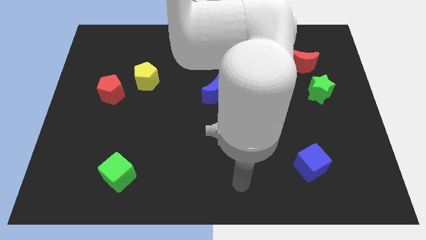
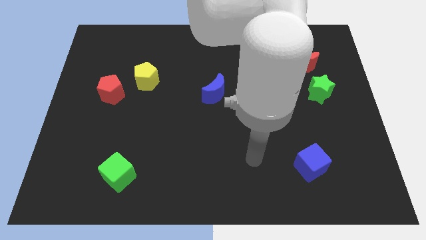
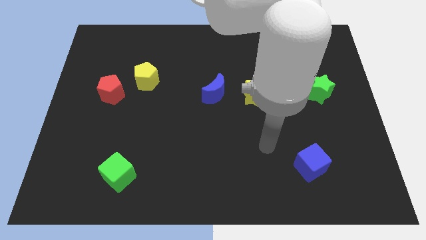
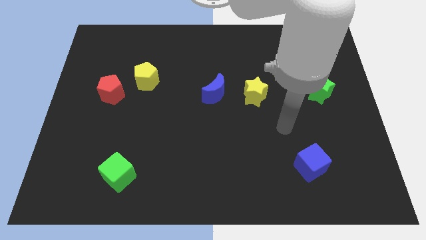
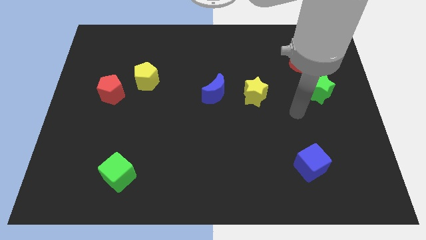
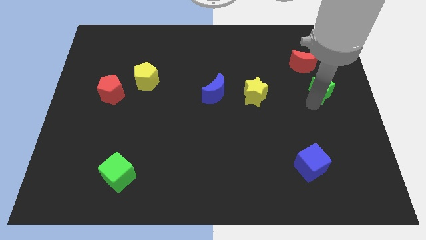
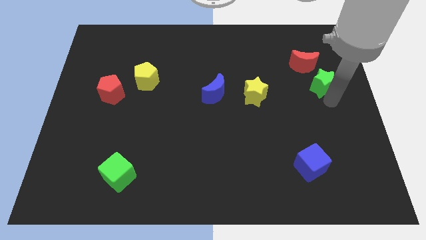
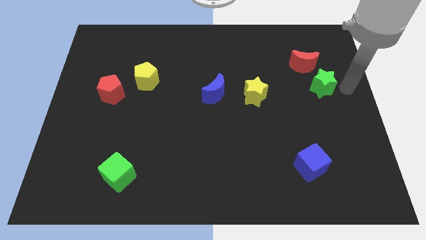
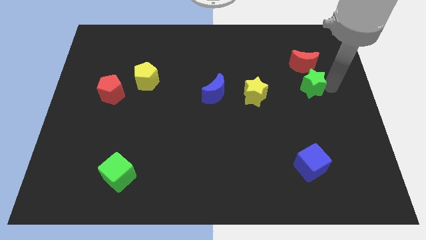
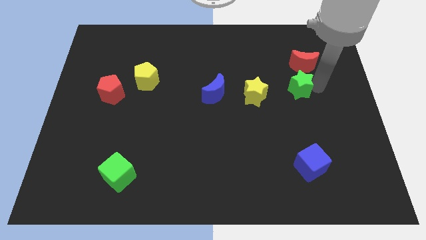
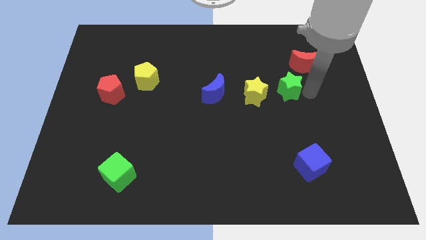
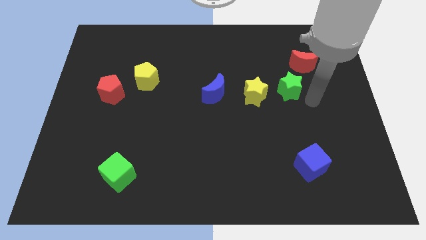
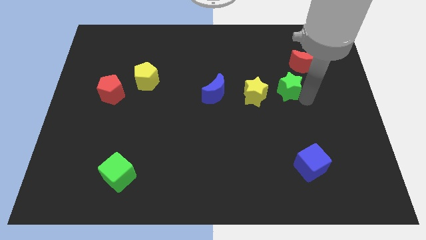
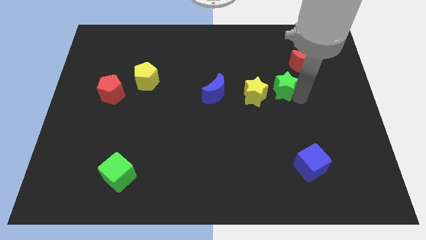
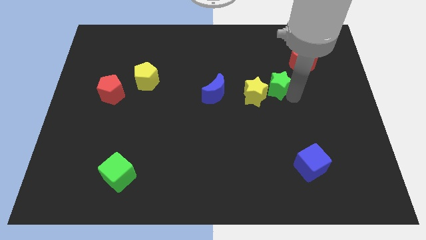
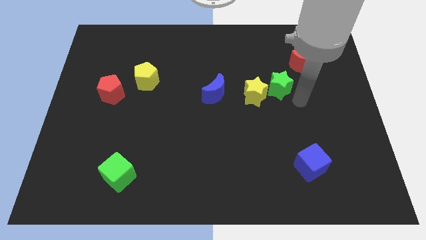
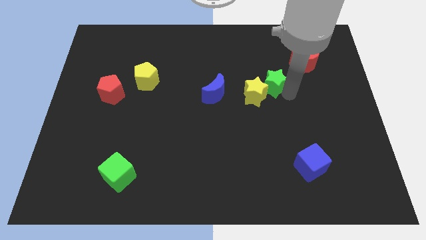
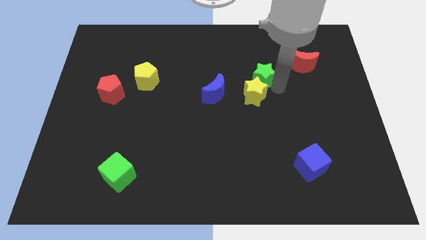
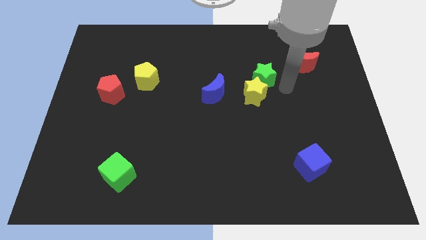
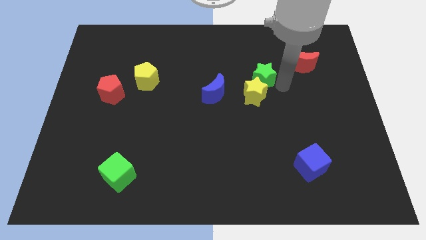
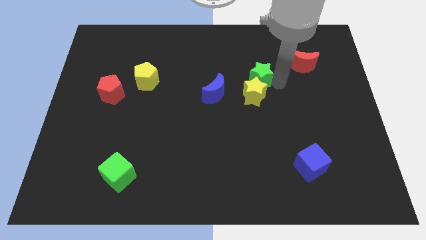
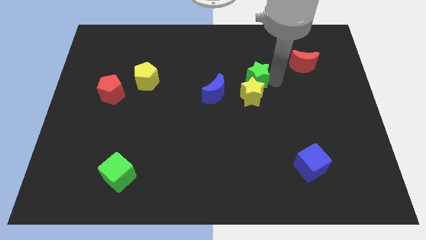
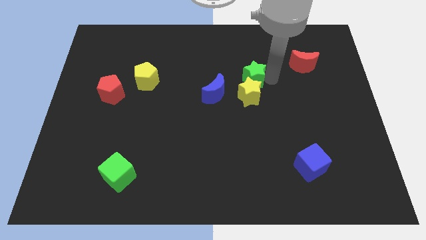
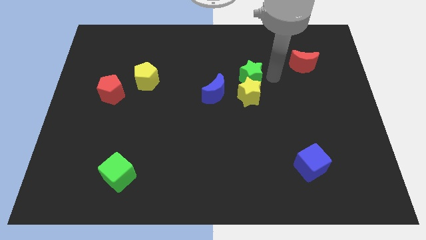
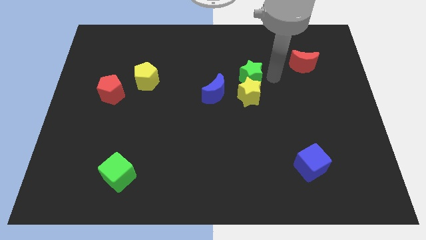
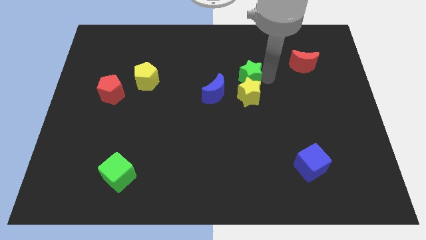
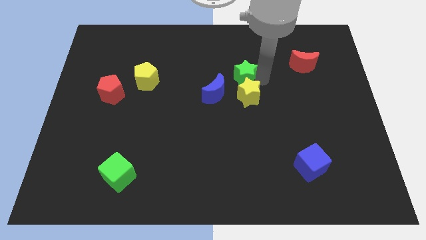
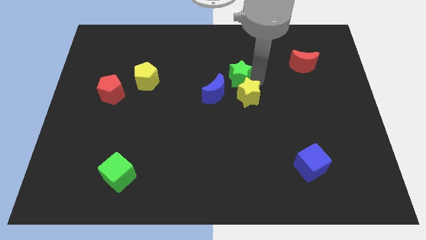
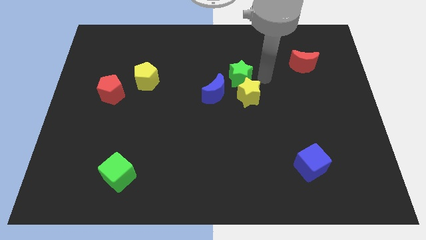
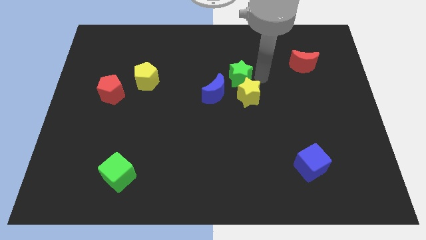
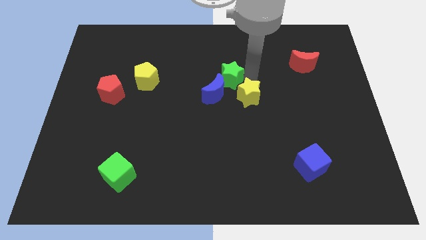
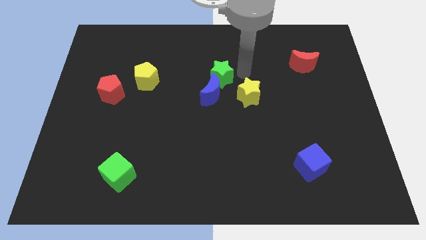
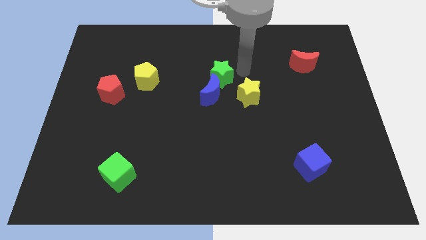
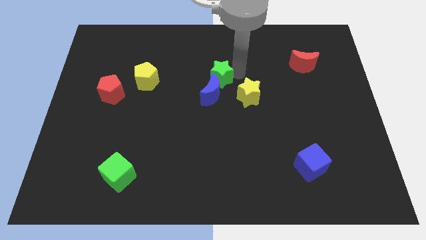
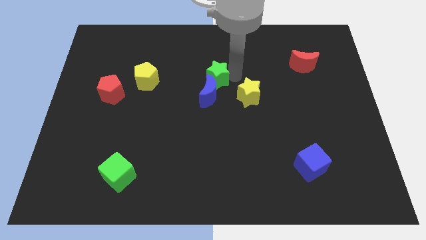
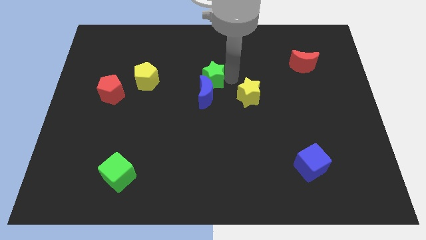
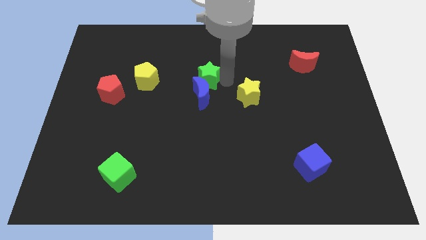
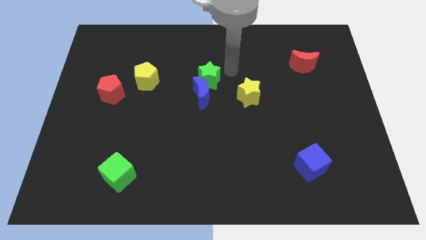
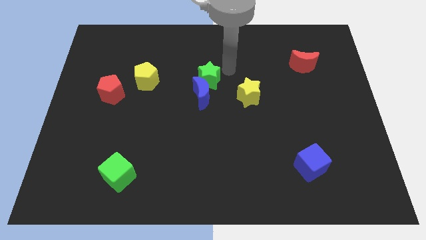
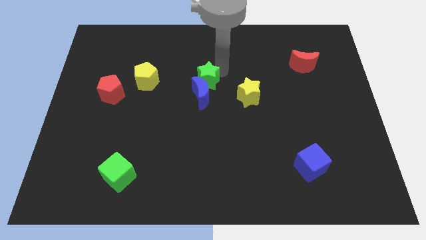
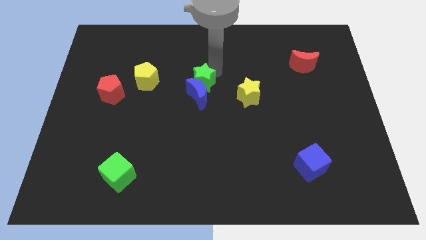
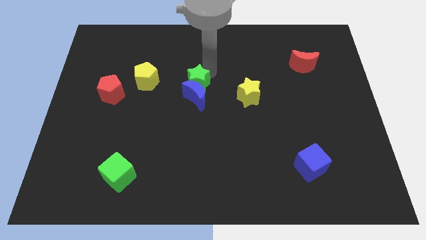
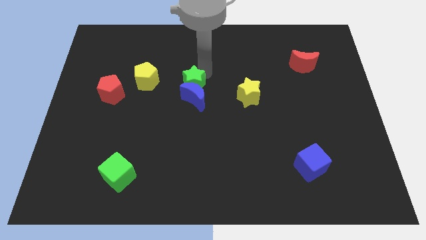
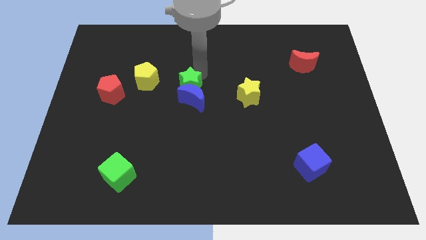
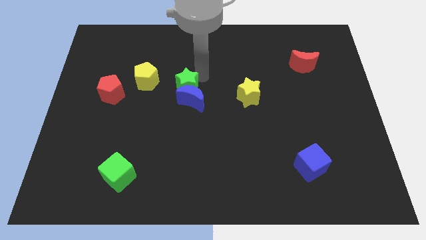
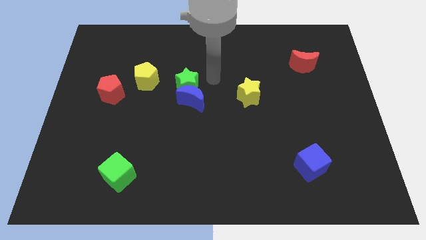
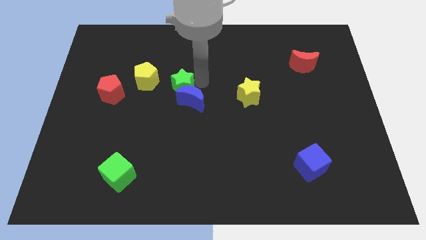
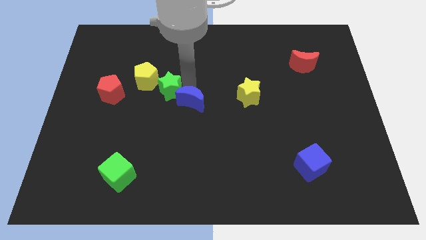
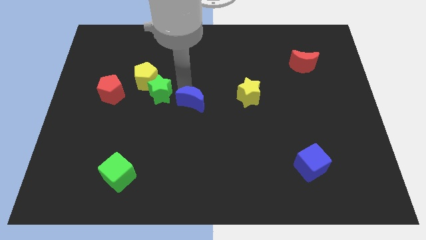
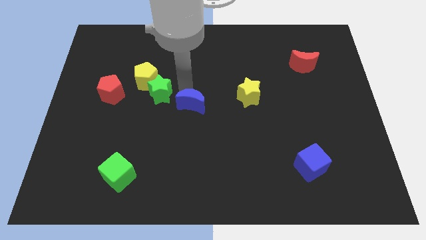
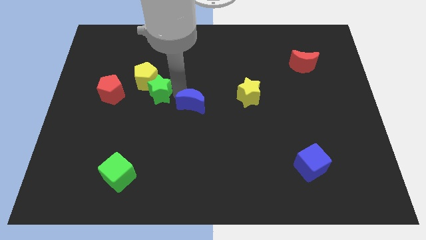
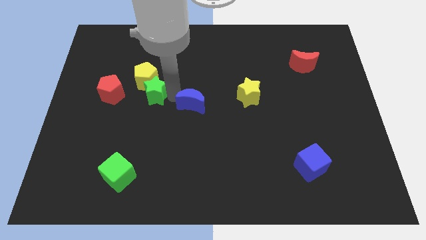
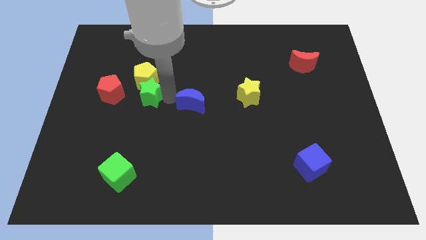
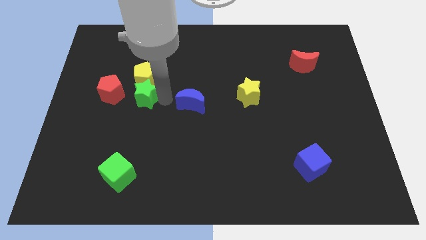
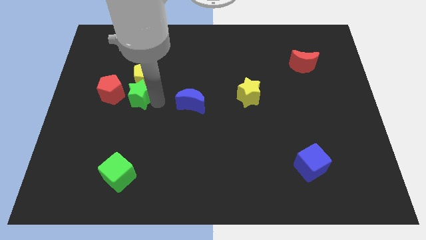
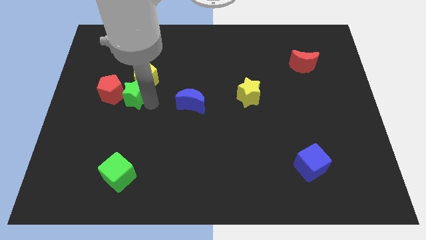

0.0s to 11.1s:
push the green star close to the red pentagon

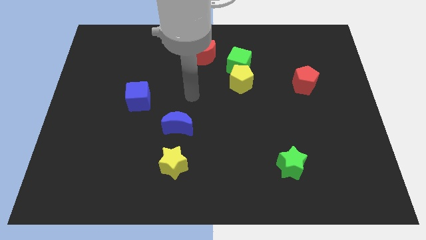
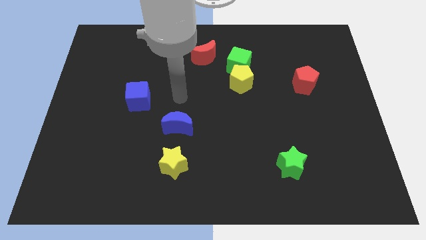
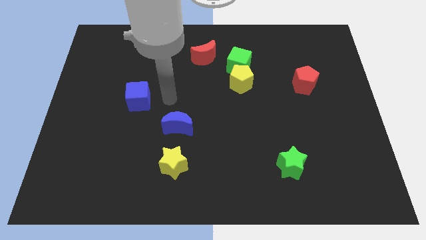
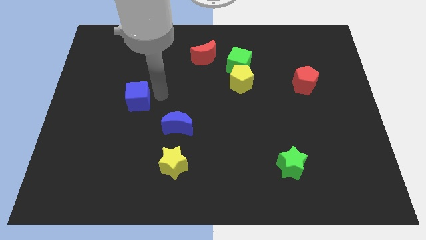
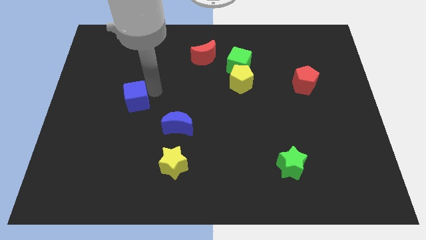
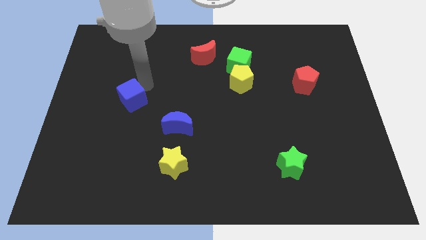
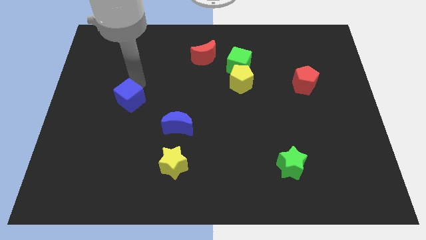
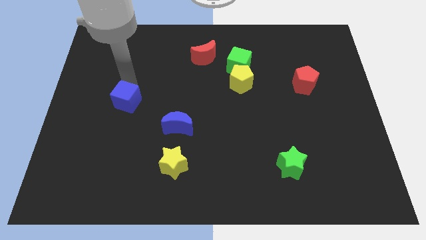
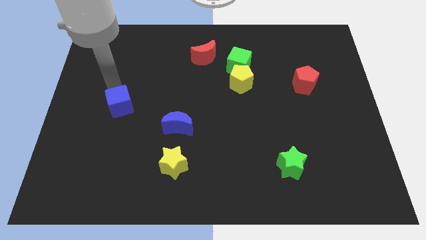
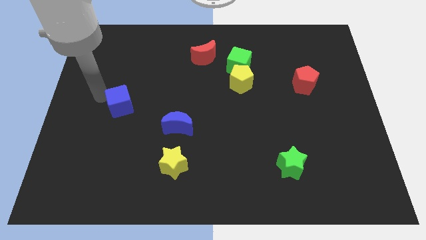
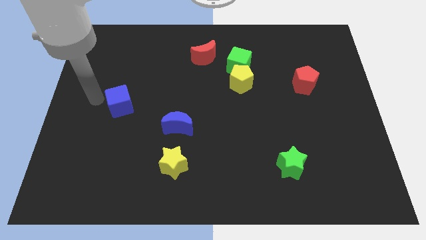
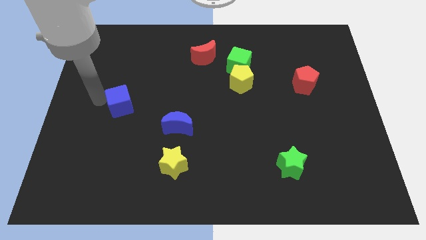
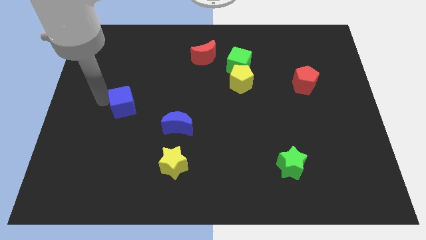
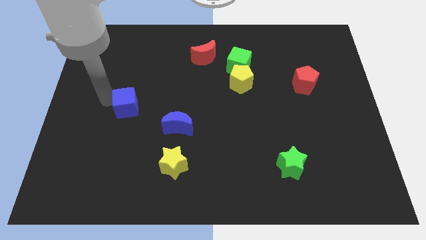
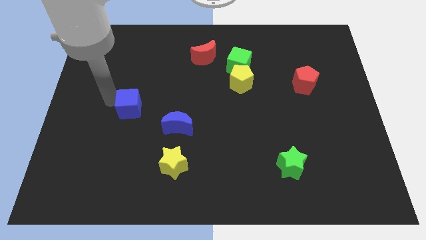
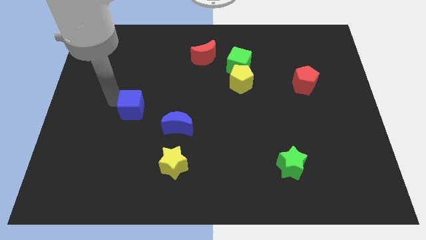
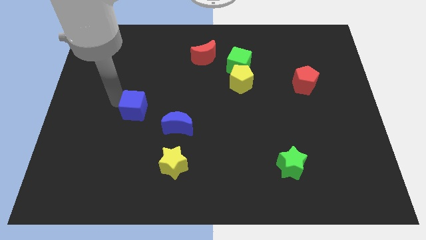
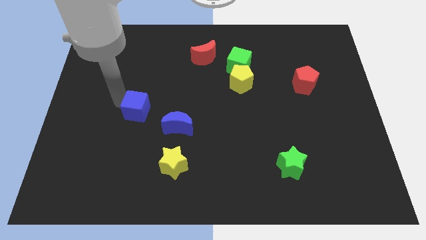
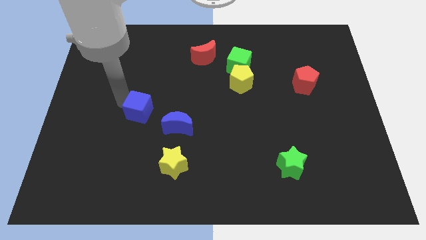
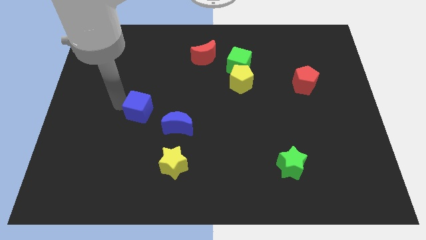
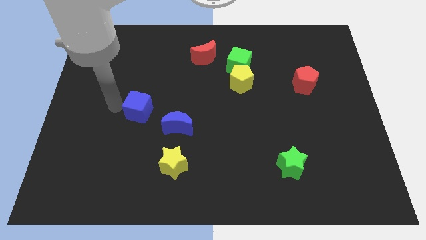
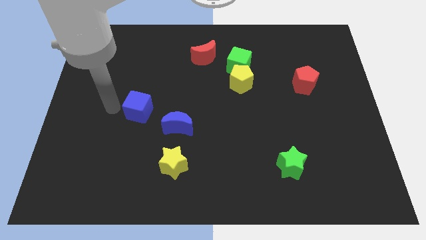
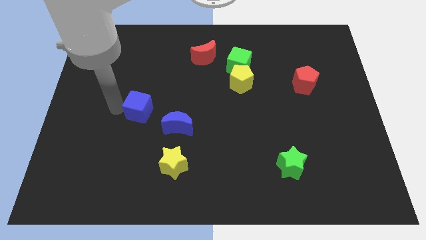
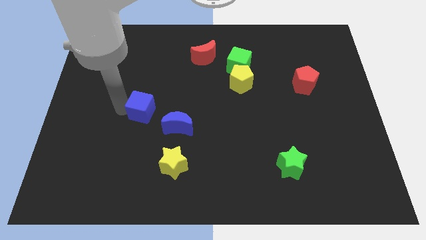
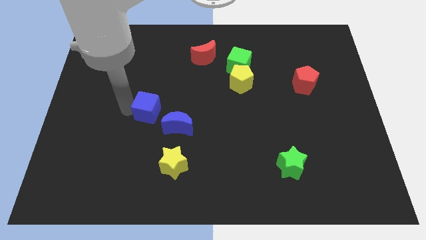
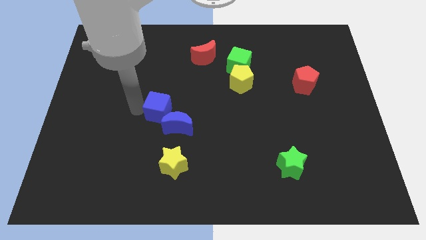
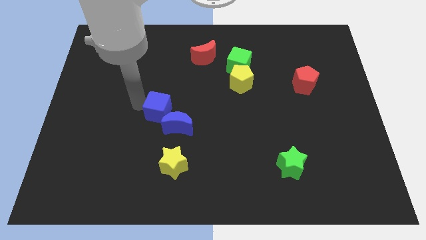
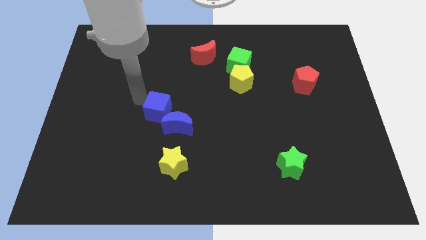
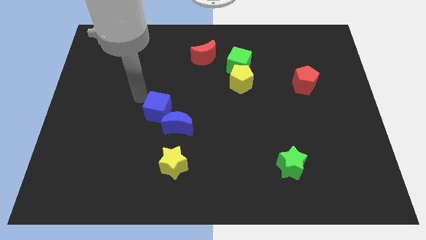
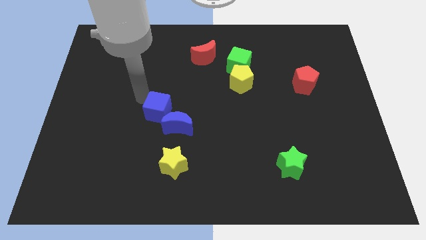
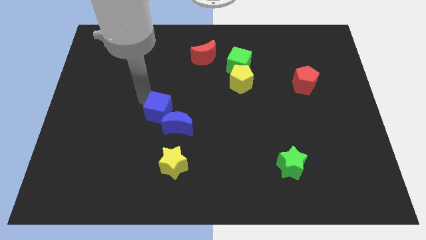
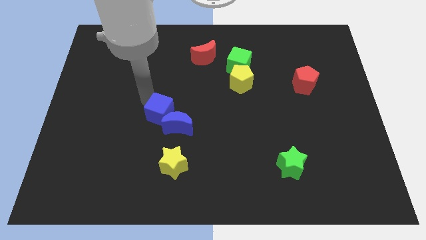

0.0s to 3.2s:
put the blue cube next to the blue moon
